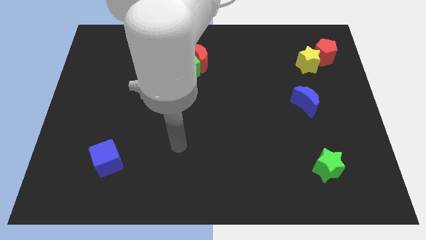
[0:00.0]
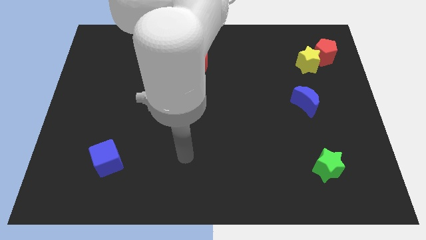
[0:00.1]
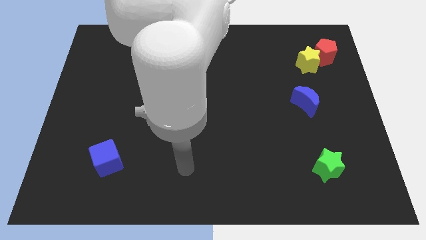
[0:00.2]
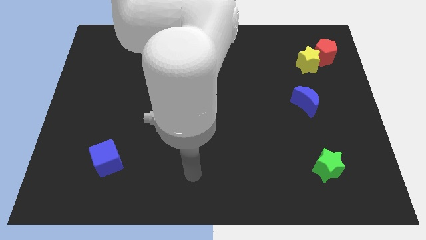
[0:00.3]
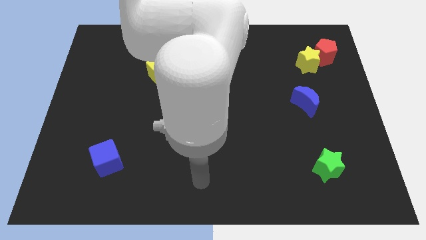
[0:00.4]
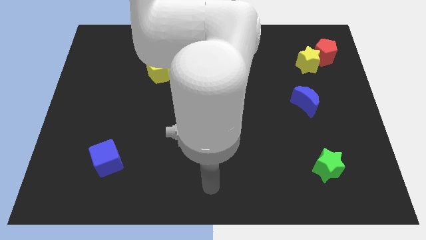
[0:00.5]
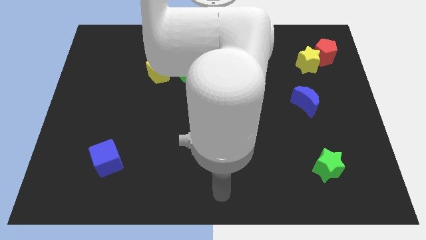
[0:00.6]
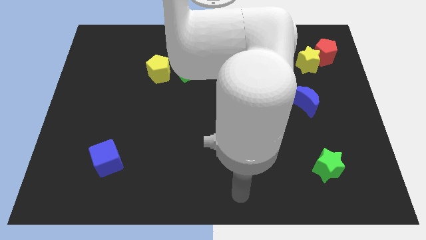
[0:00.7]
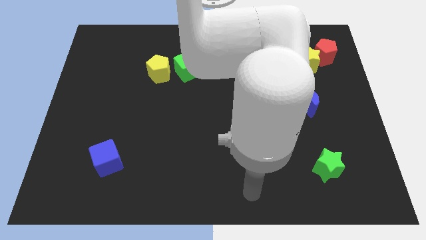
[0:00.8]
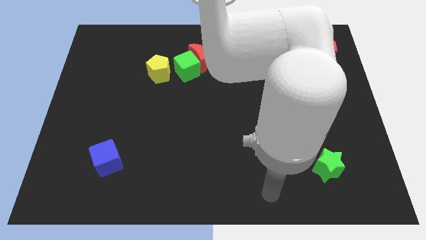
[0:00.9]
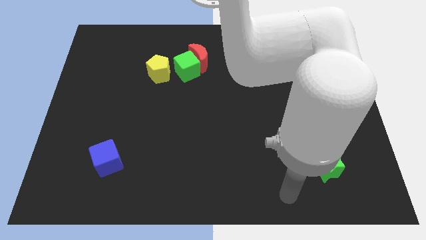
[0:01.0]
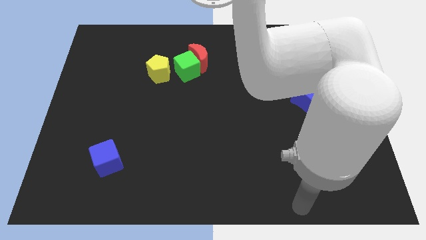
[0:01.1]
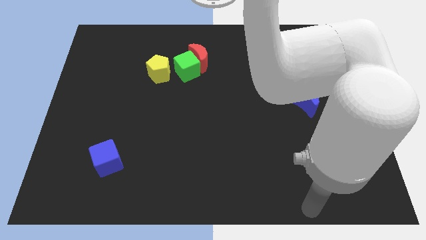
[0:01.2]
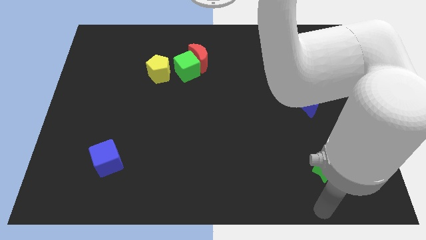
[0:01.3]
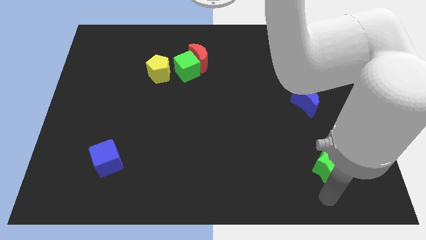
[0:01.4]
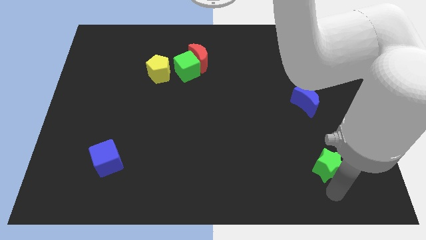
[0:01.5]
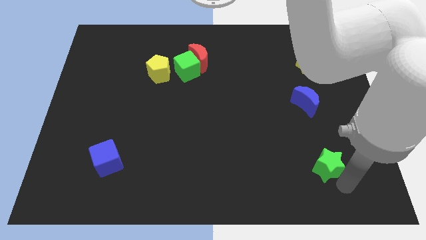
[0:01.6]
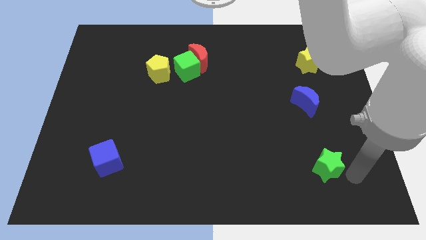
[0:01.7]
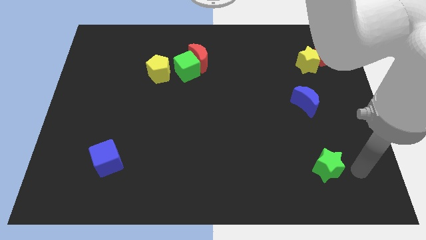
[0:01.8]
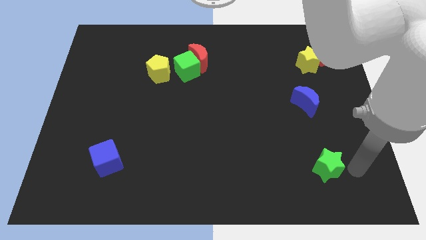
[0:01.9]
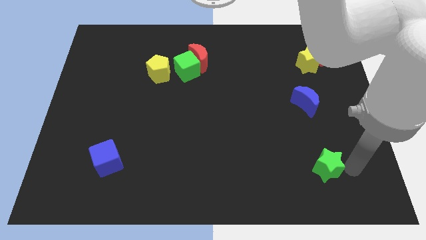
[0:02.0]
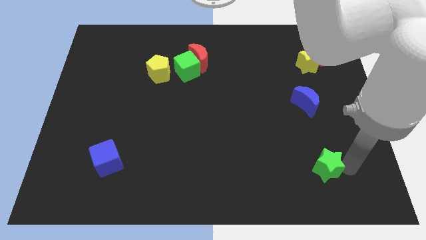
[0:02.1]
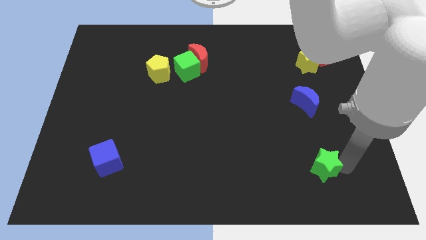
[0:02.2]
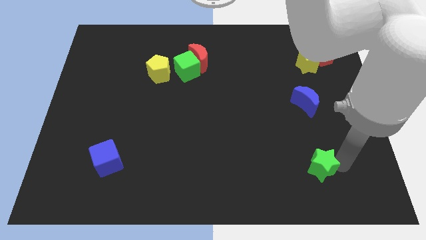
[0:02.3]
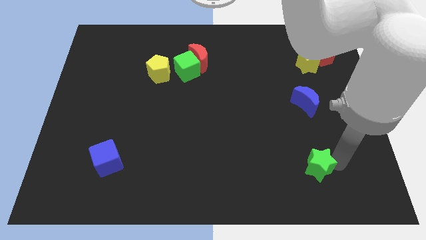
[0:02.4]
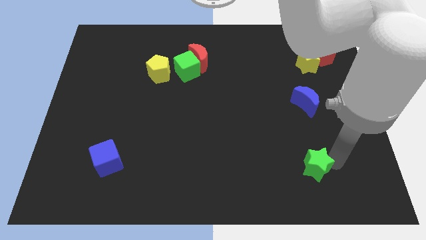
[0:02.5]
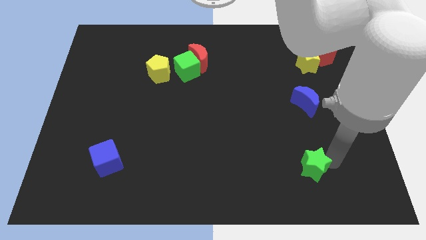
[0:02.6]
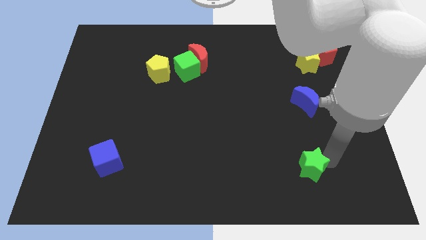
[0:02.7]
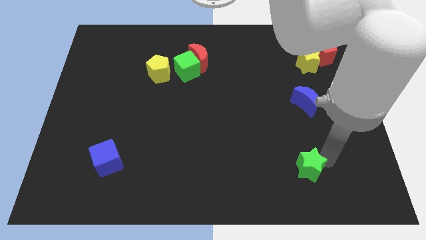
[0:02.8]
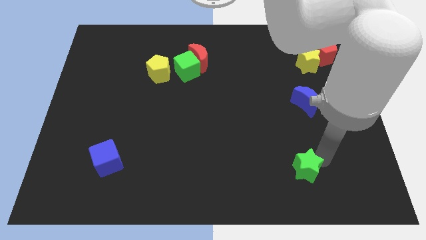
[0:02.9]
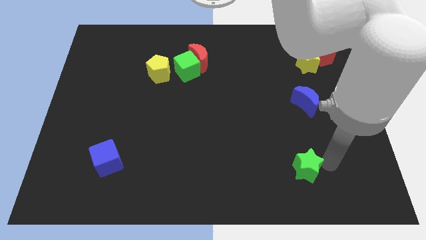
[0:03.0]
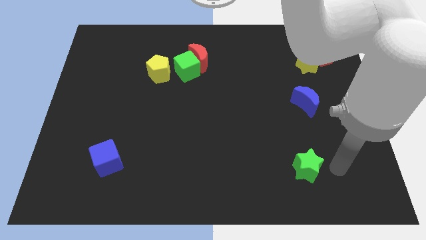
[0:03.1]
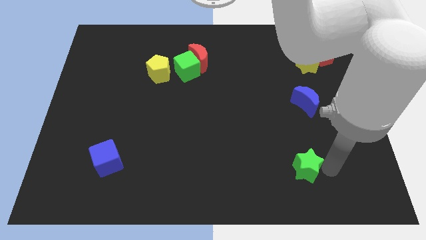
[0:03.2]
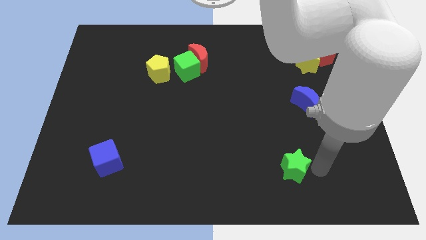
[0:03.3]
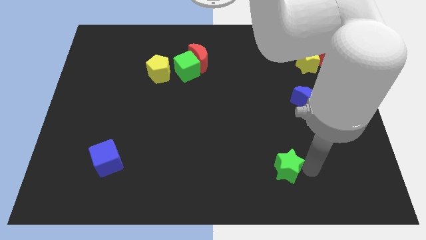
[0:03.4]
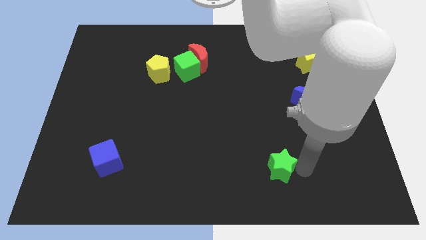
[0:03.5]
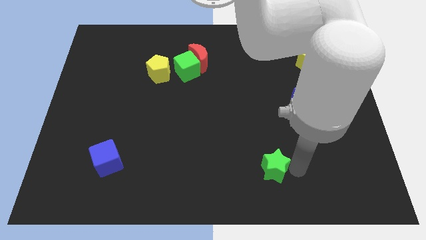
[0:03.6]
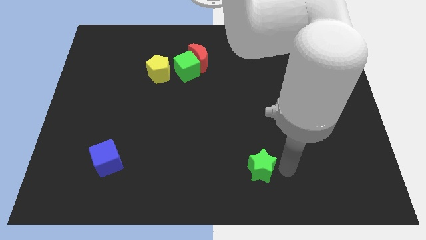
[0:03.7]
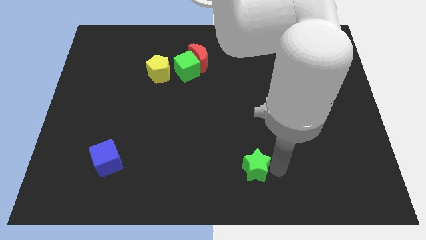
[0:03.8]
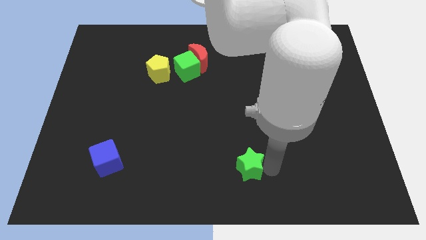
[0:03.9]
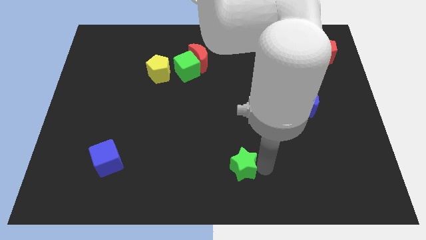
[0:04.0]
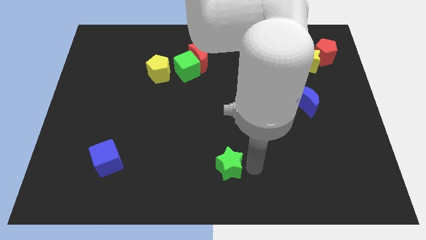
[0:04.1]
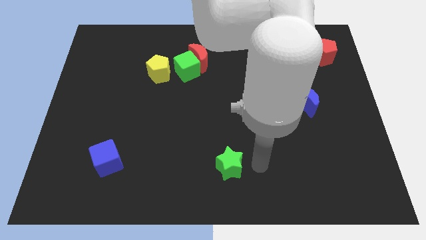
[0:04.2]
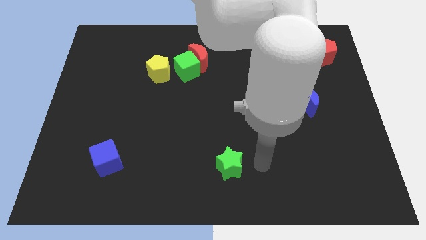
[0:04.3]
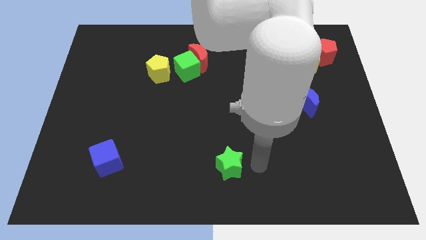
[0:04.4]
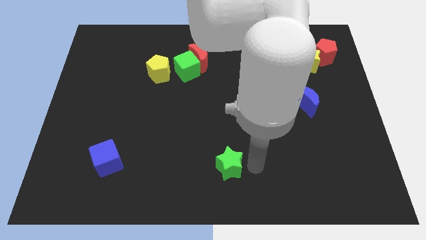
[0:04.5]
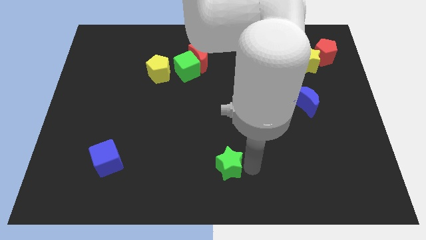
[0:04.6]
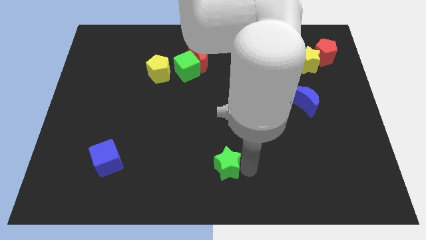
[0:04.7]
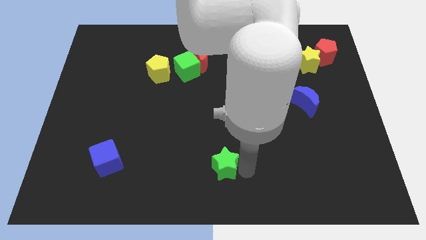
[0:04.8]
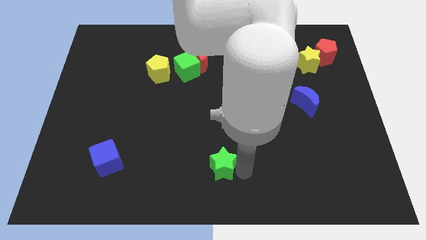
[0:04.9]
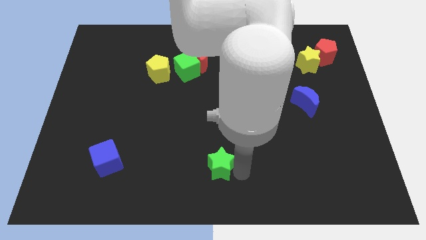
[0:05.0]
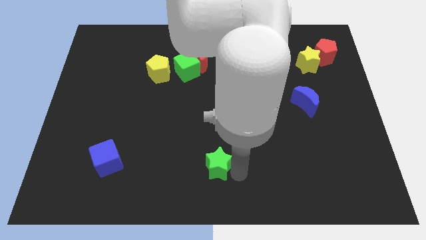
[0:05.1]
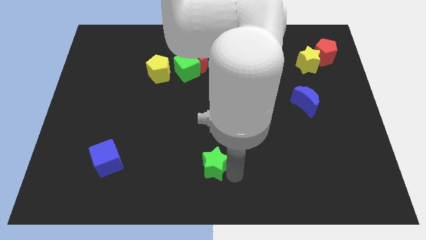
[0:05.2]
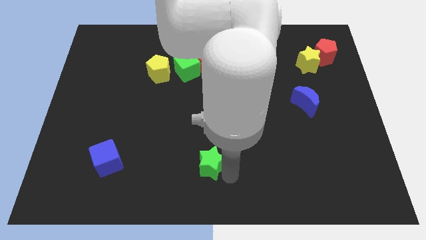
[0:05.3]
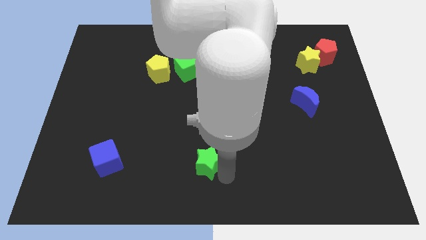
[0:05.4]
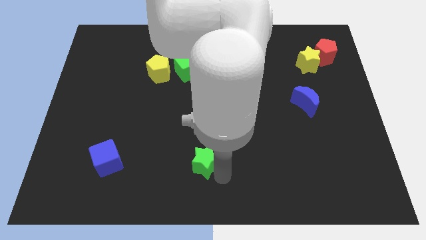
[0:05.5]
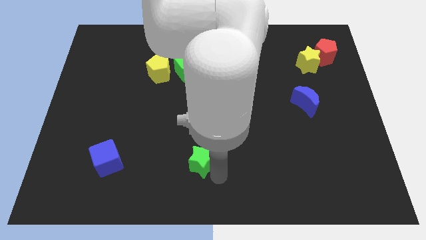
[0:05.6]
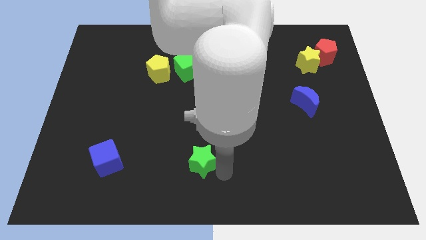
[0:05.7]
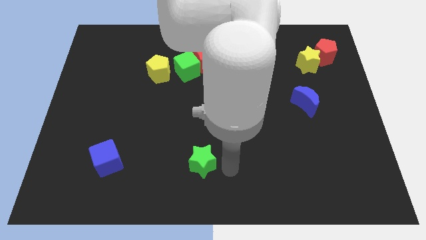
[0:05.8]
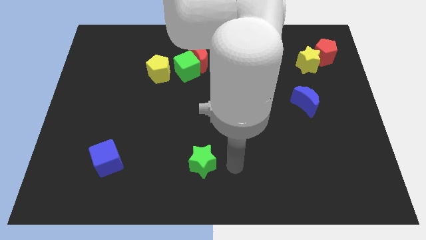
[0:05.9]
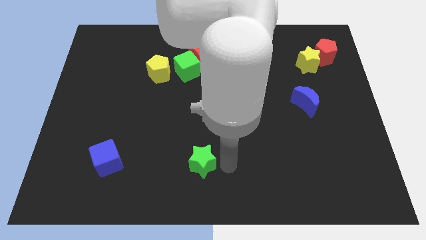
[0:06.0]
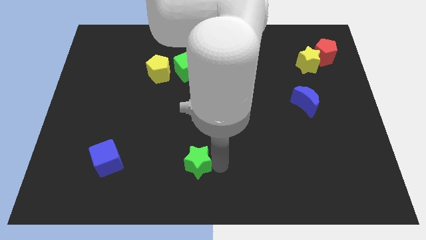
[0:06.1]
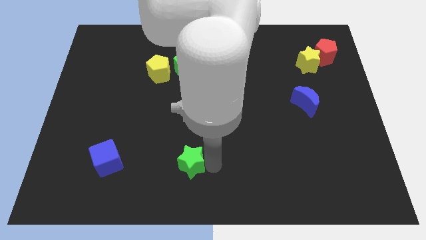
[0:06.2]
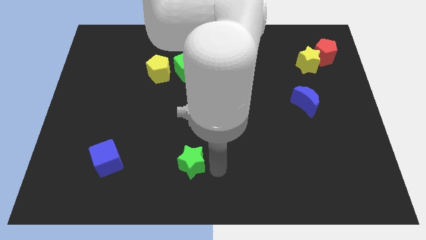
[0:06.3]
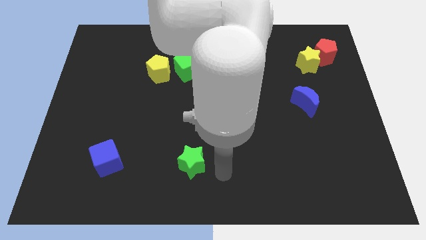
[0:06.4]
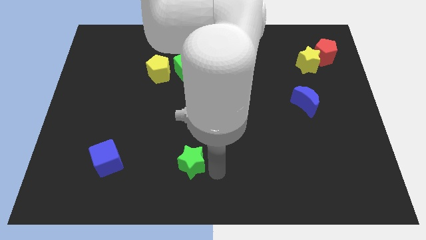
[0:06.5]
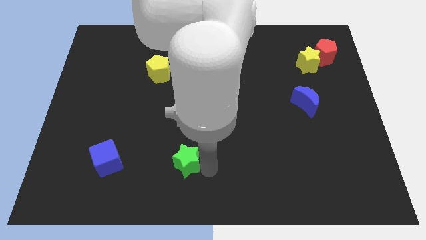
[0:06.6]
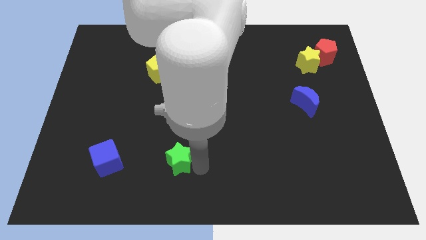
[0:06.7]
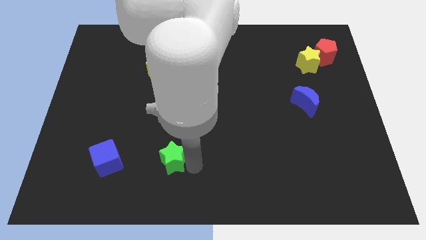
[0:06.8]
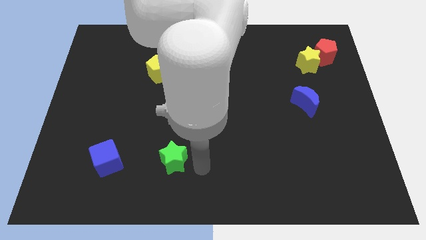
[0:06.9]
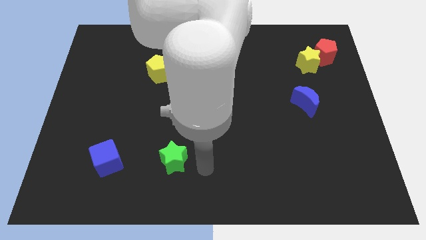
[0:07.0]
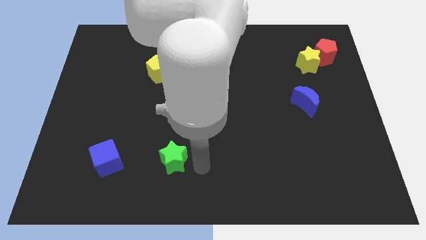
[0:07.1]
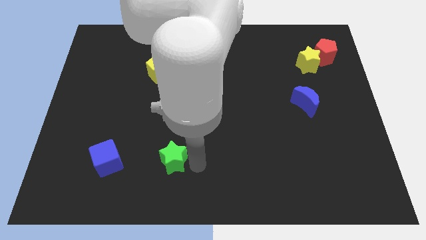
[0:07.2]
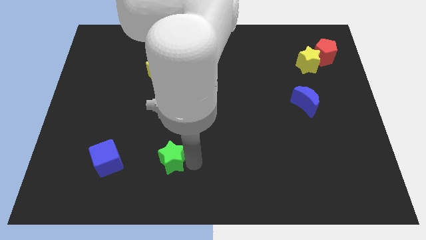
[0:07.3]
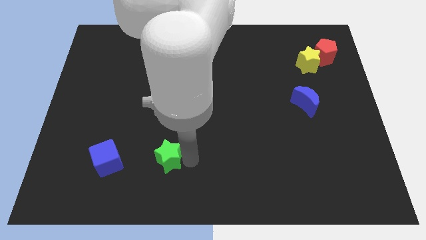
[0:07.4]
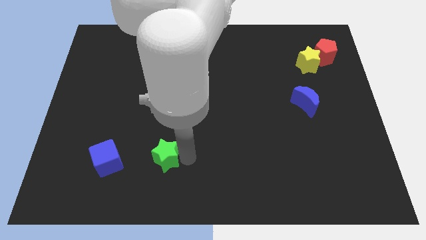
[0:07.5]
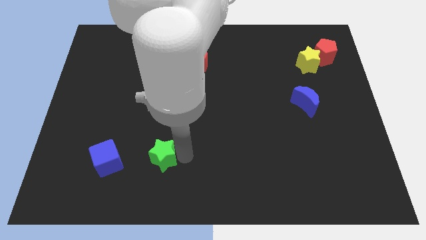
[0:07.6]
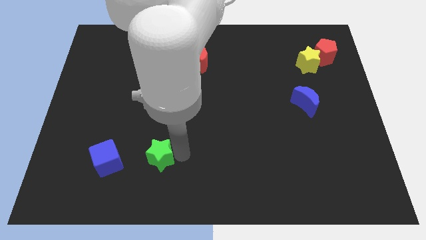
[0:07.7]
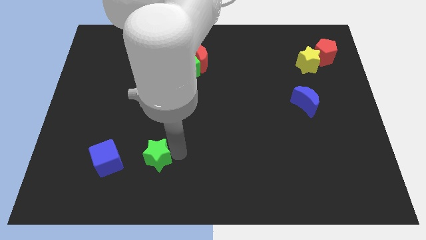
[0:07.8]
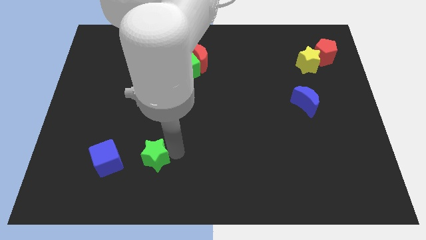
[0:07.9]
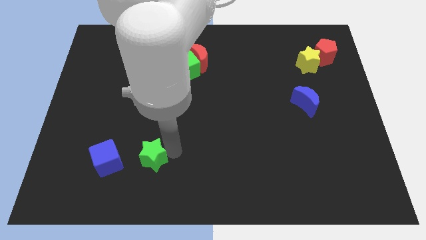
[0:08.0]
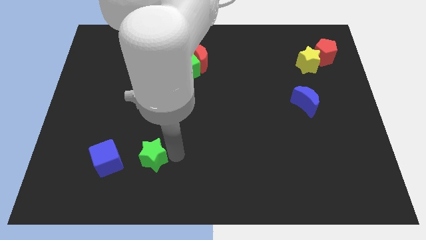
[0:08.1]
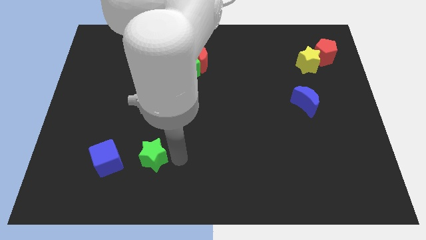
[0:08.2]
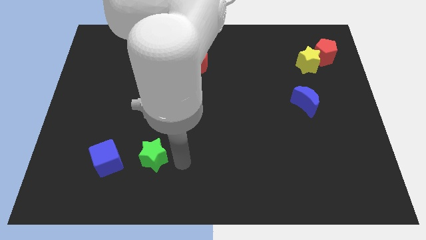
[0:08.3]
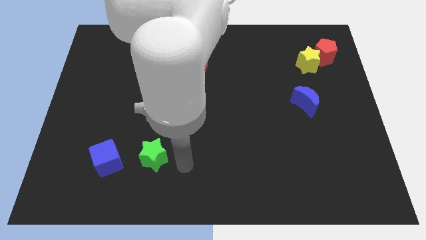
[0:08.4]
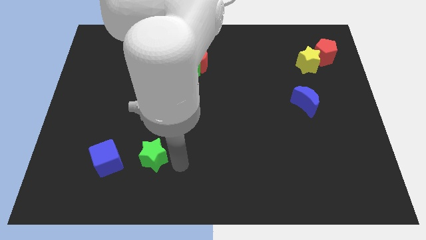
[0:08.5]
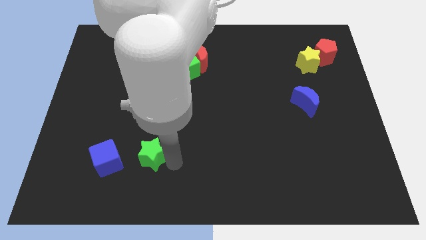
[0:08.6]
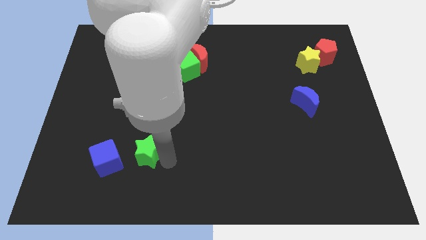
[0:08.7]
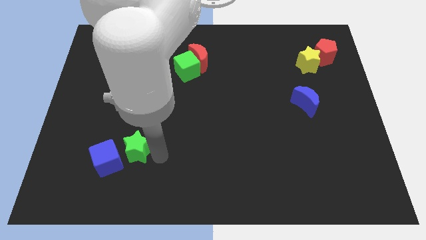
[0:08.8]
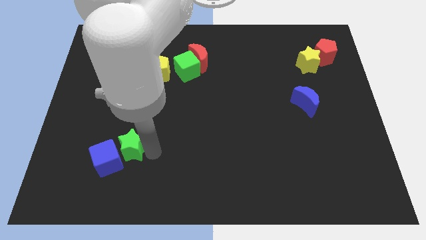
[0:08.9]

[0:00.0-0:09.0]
push the green star close to the blue cube
